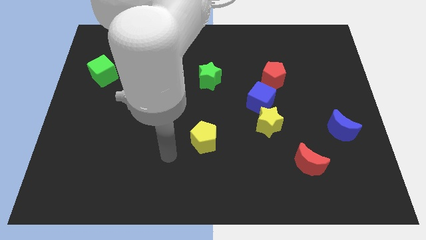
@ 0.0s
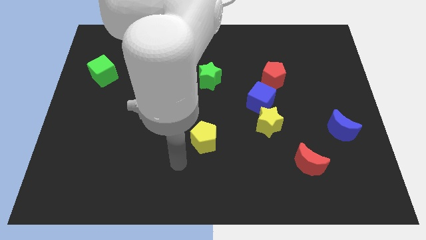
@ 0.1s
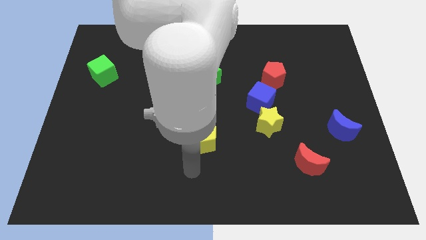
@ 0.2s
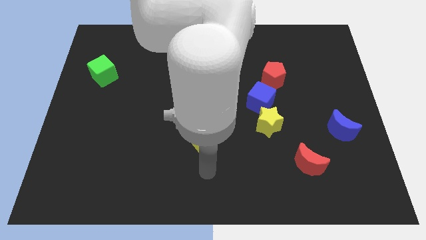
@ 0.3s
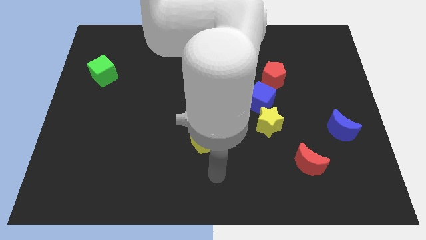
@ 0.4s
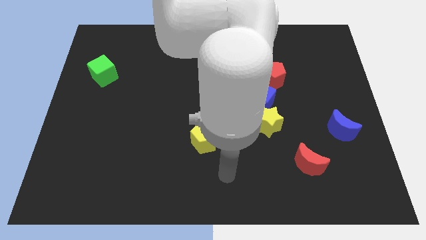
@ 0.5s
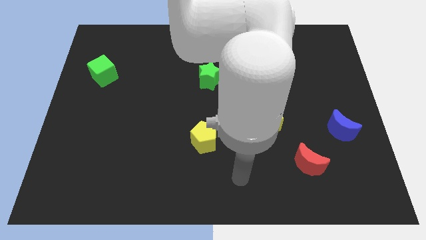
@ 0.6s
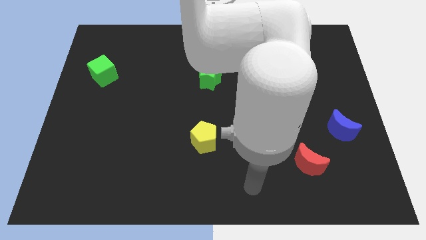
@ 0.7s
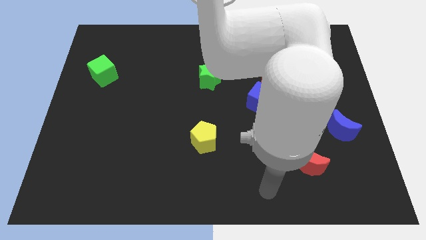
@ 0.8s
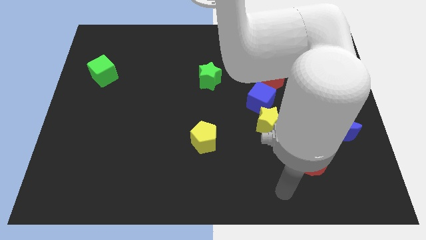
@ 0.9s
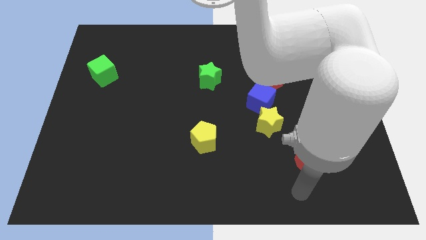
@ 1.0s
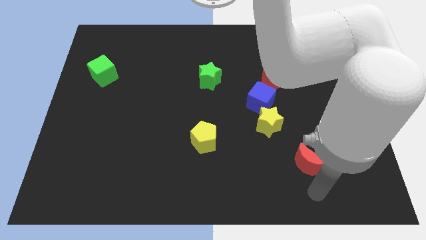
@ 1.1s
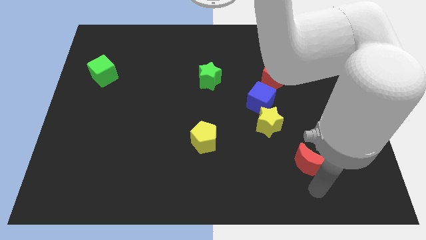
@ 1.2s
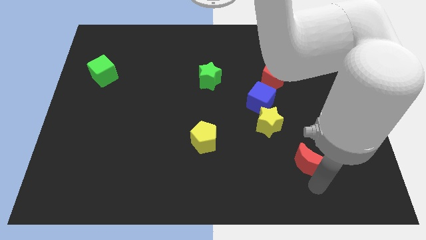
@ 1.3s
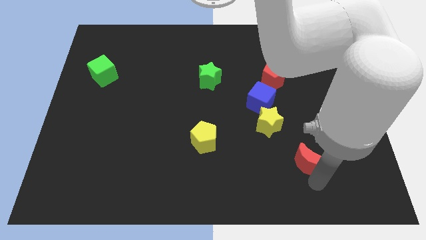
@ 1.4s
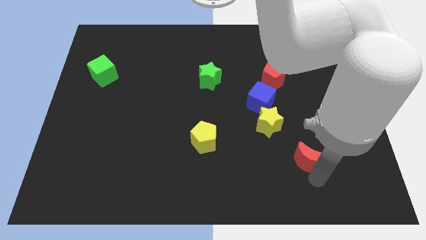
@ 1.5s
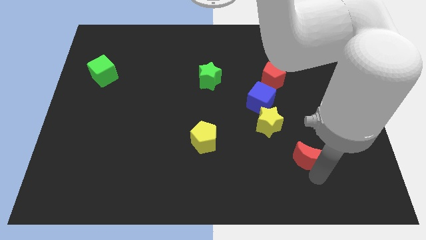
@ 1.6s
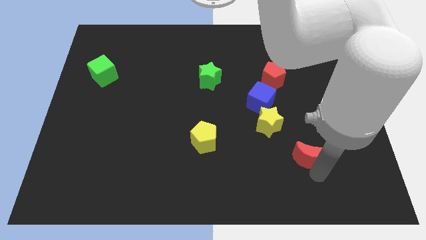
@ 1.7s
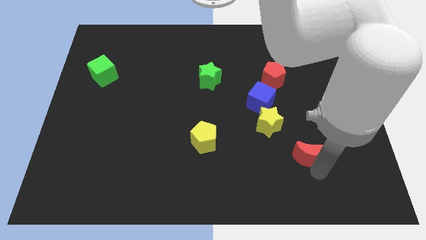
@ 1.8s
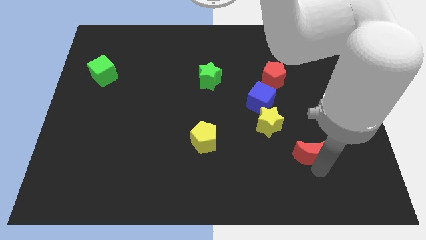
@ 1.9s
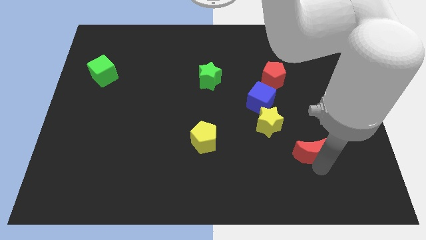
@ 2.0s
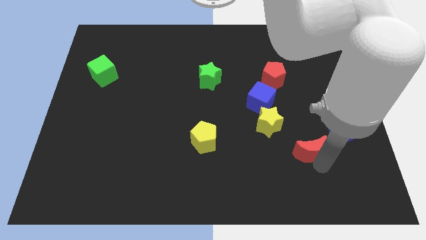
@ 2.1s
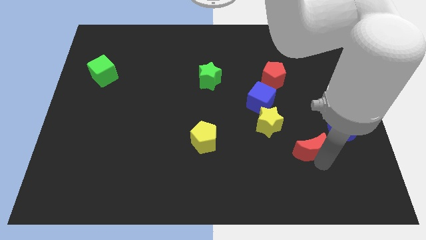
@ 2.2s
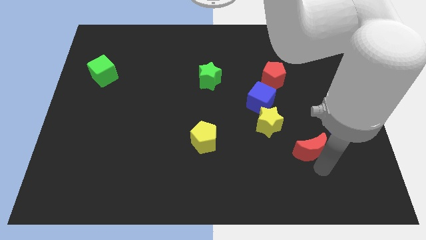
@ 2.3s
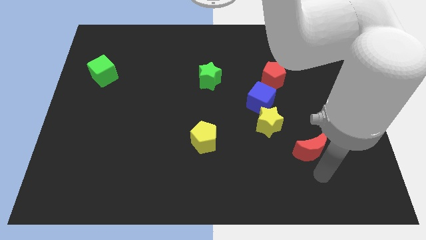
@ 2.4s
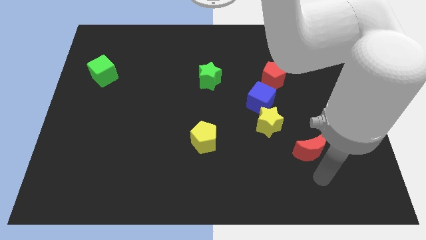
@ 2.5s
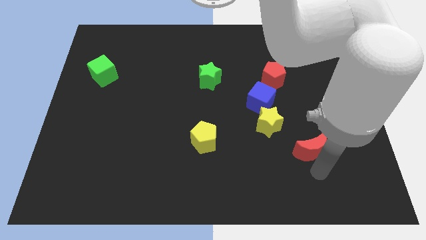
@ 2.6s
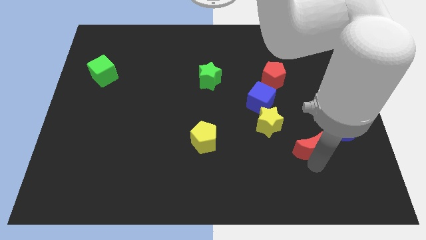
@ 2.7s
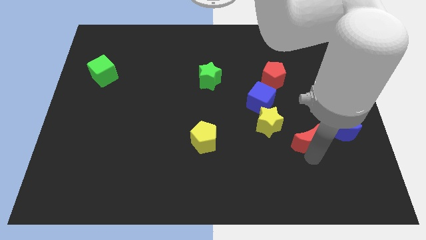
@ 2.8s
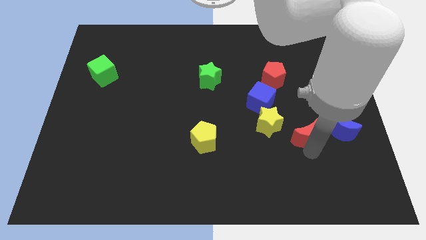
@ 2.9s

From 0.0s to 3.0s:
slide the red moon somewhat up

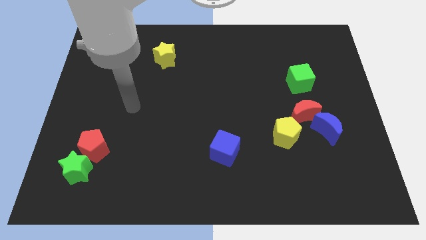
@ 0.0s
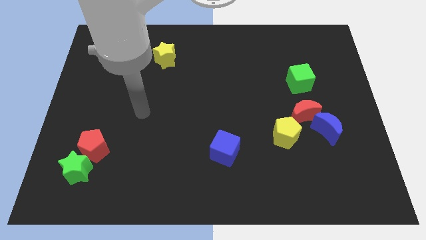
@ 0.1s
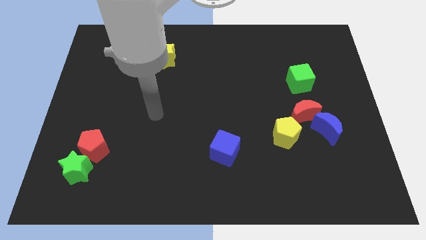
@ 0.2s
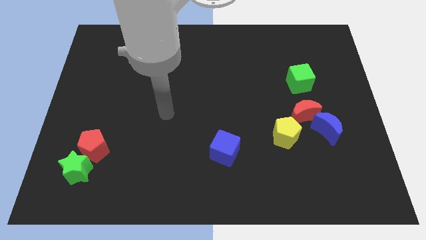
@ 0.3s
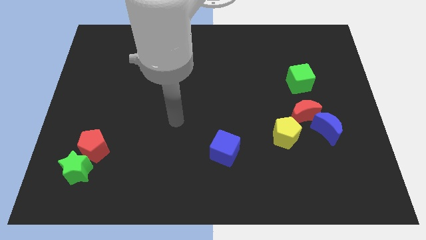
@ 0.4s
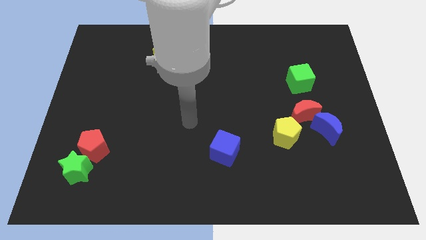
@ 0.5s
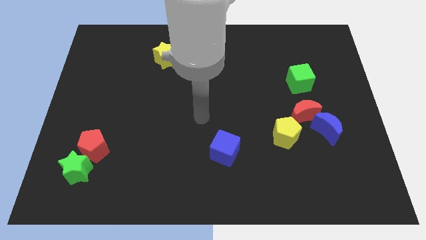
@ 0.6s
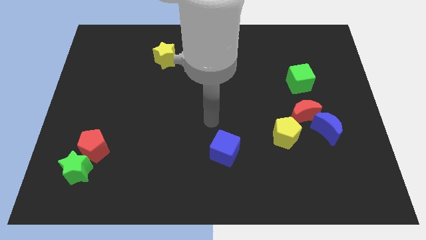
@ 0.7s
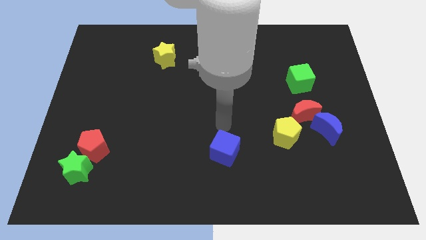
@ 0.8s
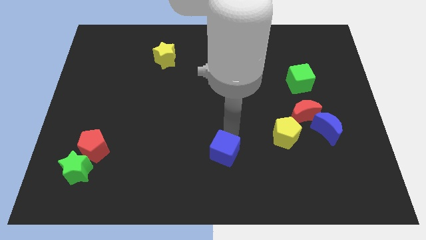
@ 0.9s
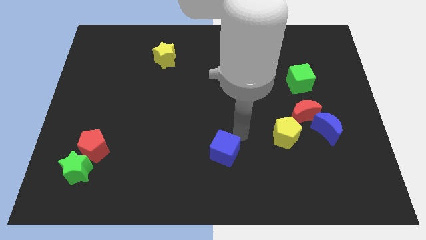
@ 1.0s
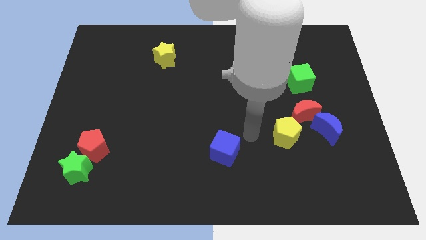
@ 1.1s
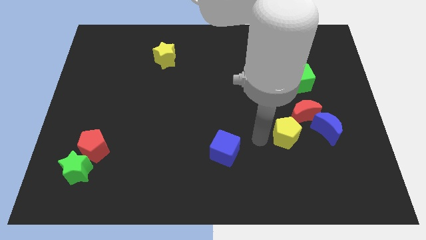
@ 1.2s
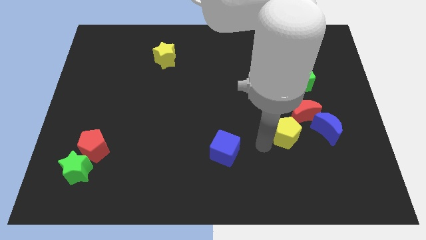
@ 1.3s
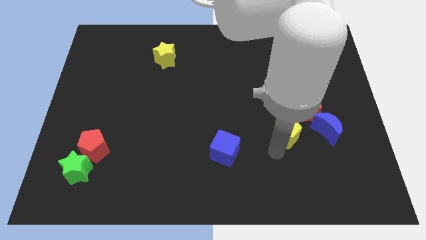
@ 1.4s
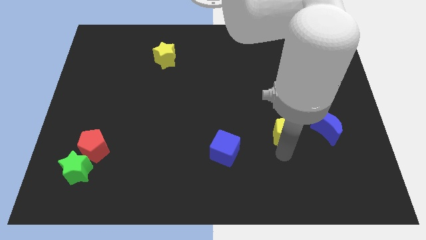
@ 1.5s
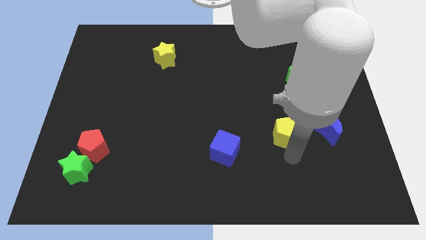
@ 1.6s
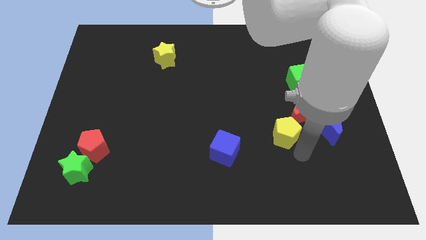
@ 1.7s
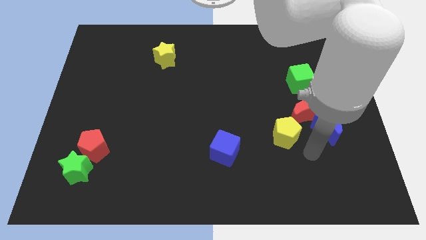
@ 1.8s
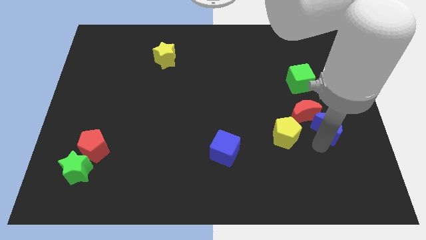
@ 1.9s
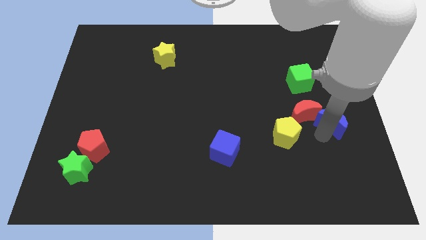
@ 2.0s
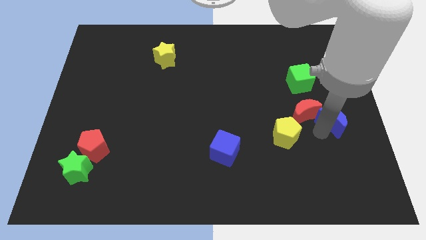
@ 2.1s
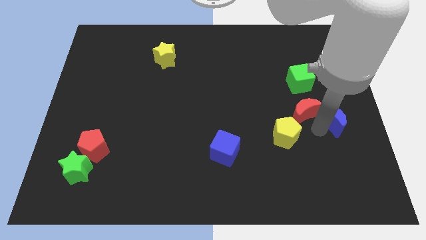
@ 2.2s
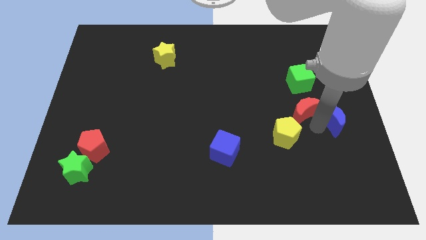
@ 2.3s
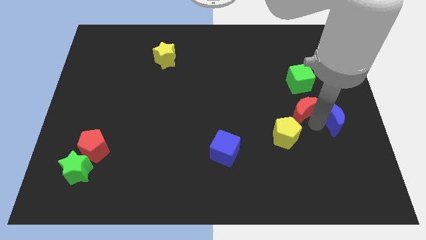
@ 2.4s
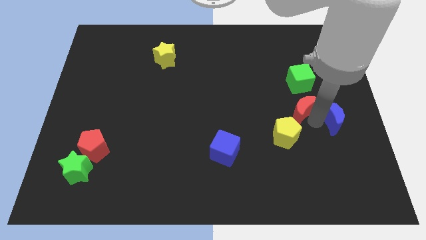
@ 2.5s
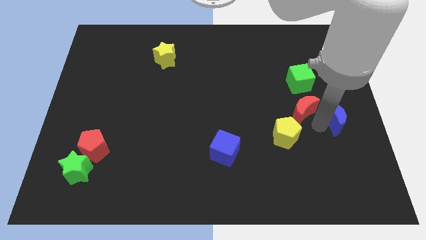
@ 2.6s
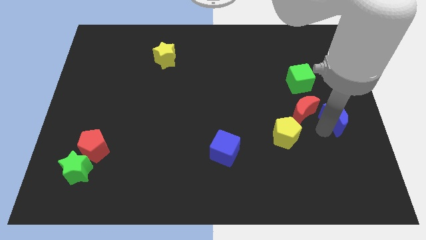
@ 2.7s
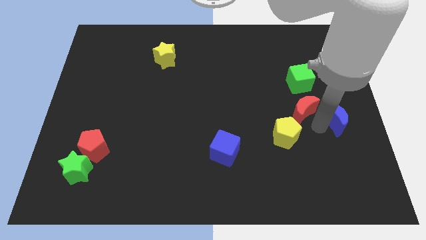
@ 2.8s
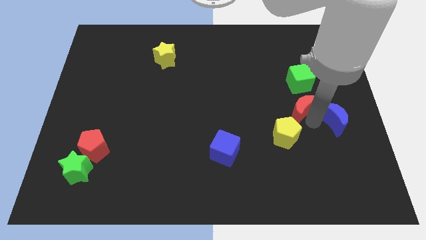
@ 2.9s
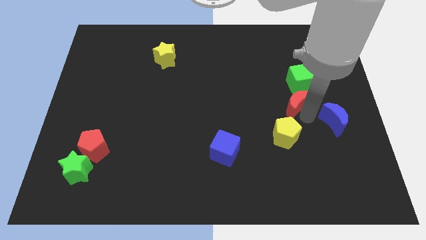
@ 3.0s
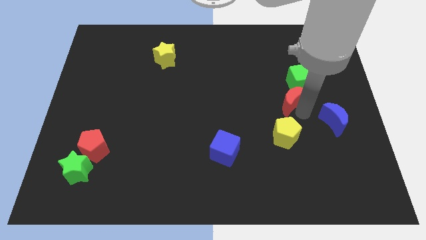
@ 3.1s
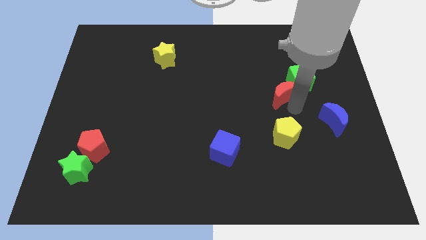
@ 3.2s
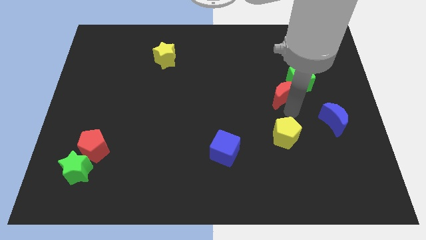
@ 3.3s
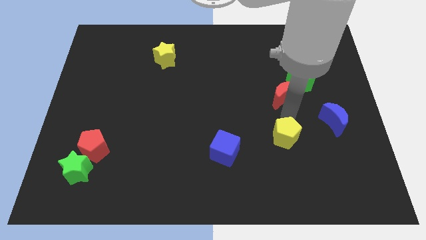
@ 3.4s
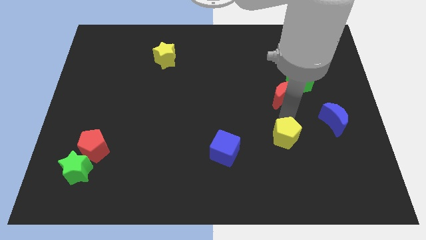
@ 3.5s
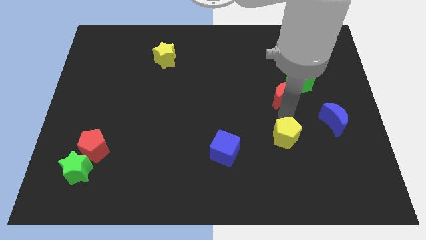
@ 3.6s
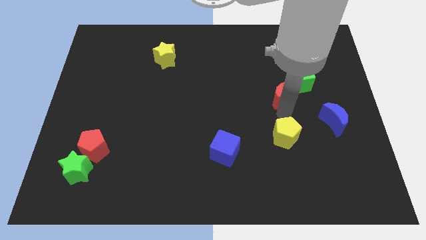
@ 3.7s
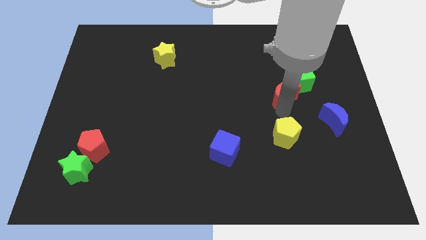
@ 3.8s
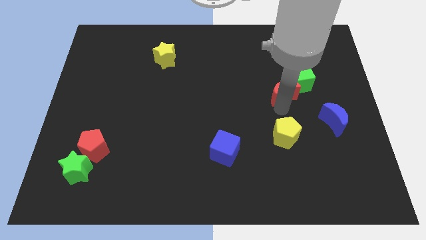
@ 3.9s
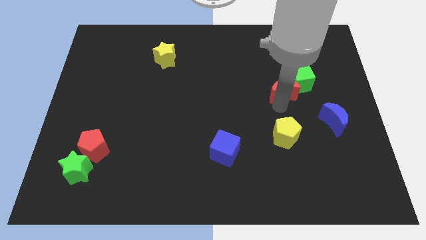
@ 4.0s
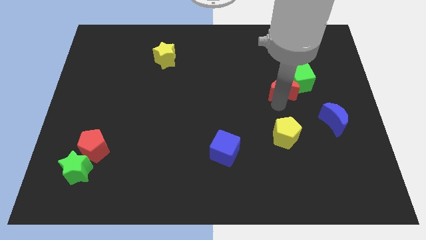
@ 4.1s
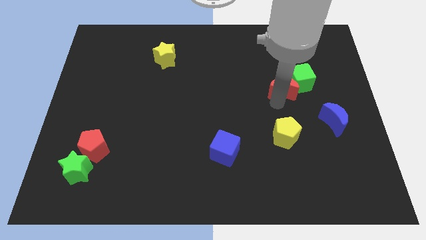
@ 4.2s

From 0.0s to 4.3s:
slightly push the red moon upwards

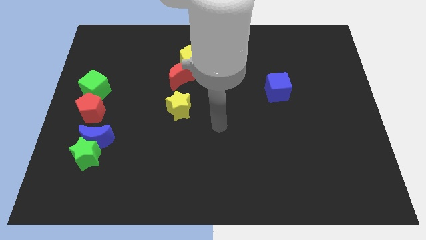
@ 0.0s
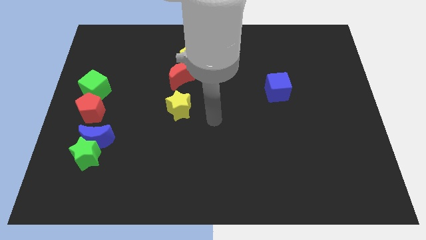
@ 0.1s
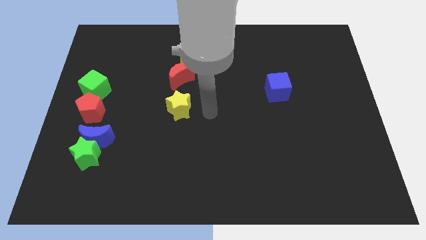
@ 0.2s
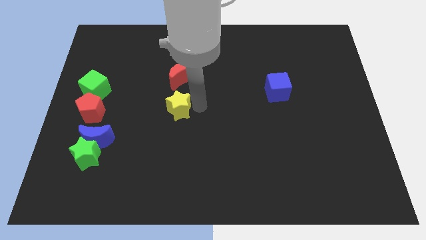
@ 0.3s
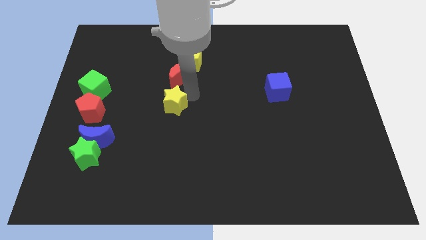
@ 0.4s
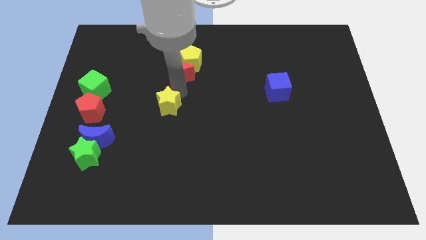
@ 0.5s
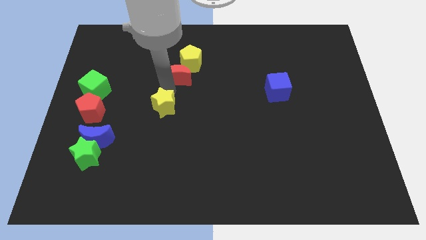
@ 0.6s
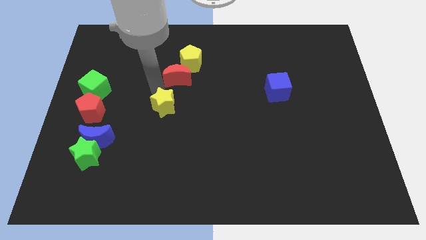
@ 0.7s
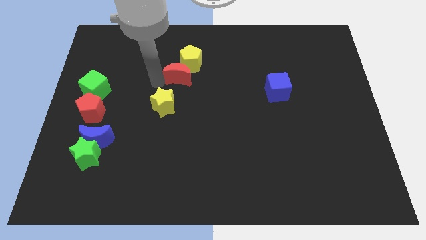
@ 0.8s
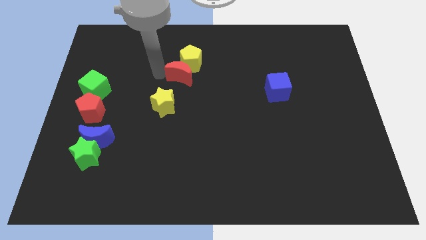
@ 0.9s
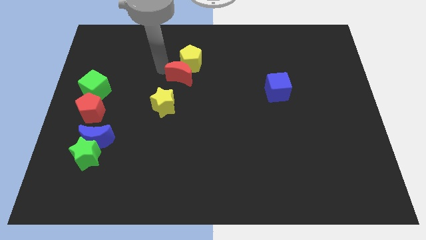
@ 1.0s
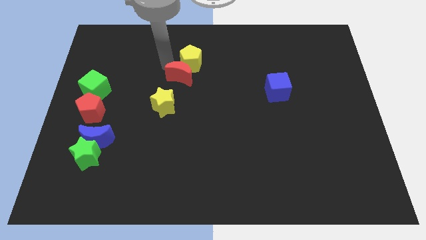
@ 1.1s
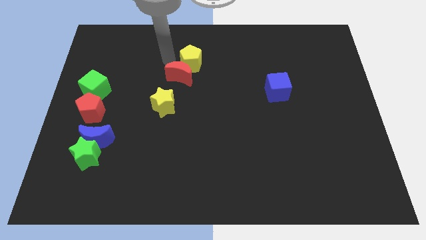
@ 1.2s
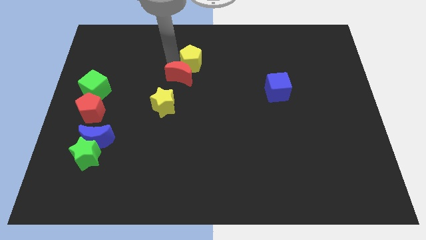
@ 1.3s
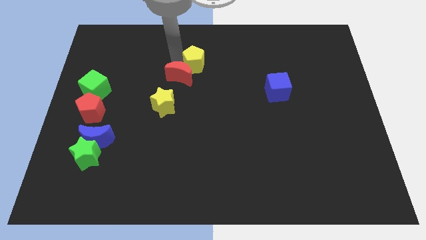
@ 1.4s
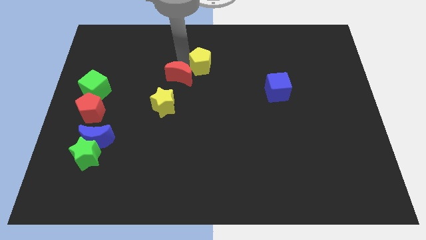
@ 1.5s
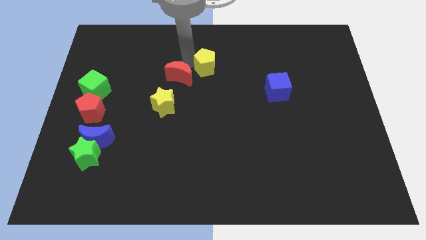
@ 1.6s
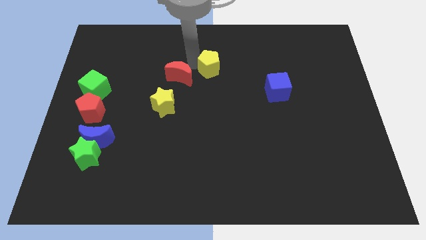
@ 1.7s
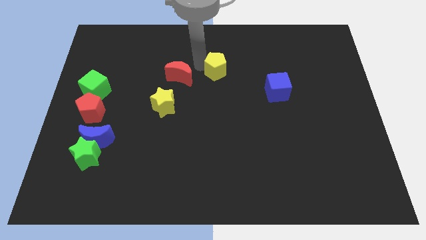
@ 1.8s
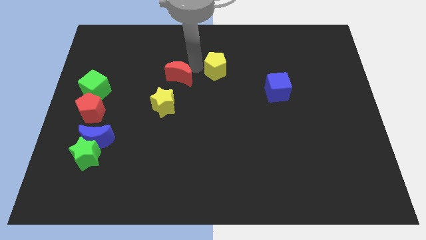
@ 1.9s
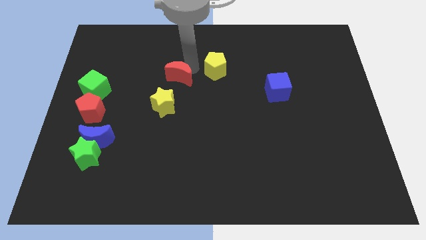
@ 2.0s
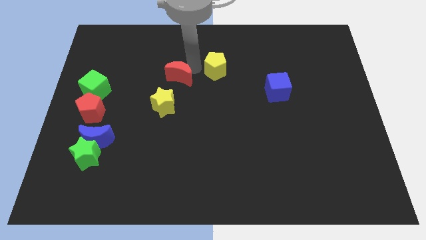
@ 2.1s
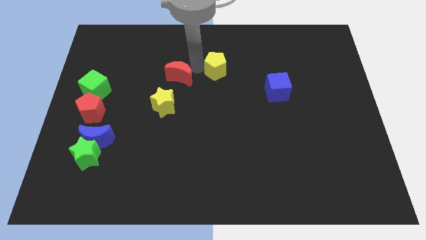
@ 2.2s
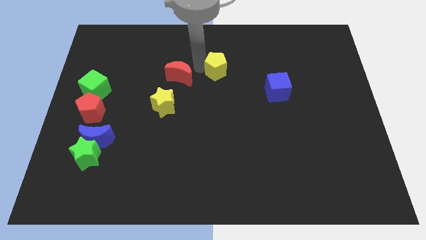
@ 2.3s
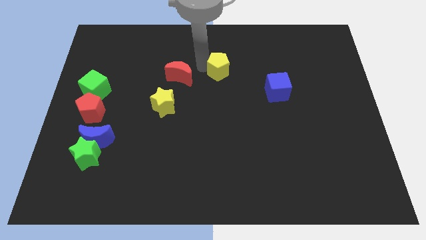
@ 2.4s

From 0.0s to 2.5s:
slightly slide the yellow pentagon to the right
